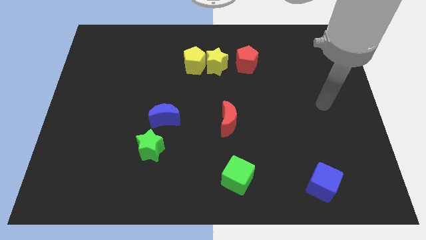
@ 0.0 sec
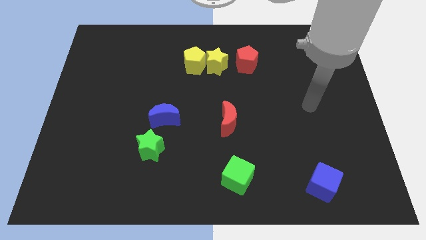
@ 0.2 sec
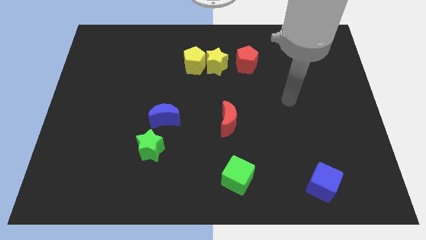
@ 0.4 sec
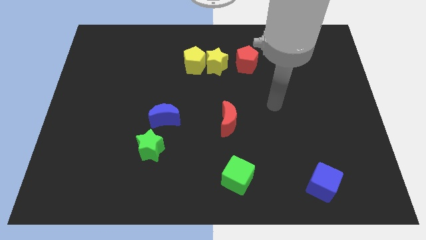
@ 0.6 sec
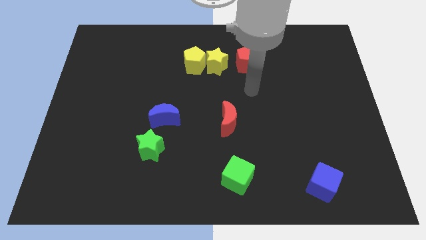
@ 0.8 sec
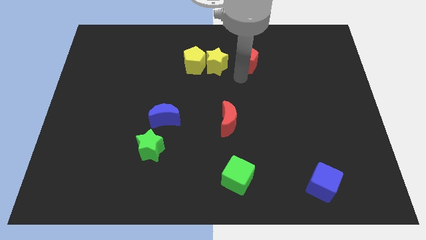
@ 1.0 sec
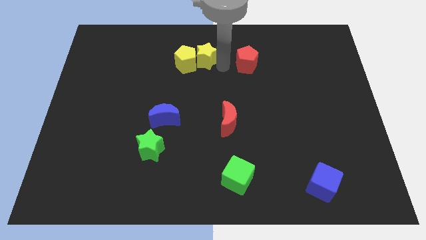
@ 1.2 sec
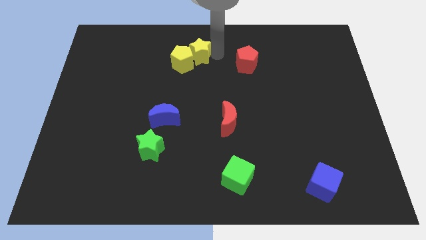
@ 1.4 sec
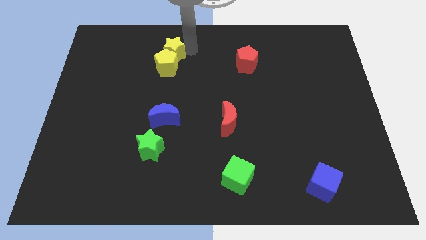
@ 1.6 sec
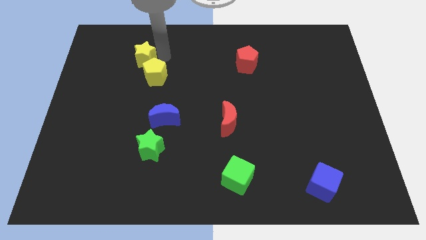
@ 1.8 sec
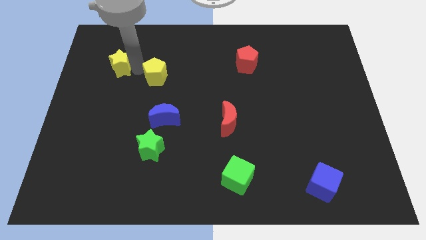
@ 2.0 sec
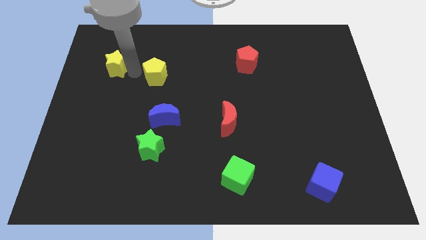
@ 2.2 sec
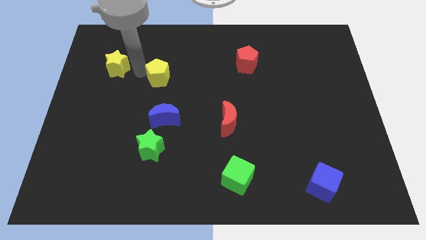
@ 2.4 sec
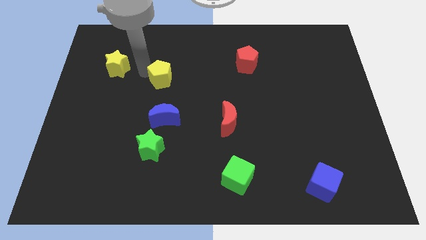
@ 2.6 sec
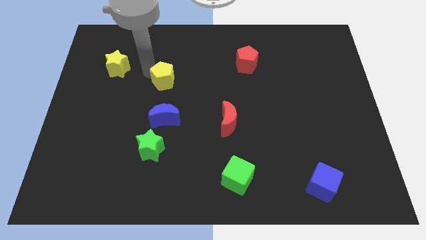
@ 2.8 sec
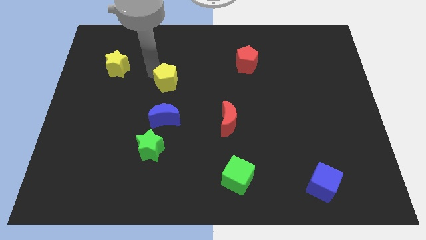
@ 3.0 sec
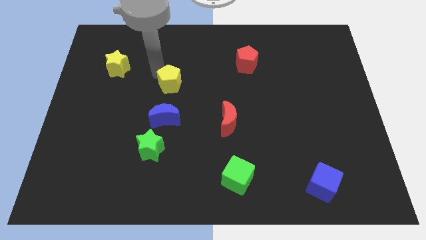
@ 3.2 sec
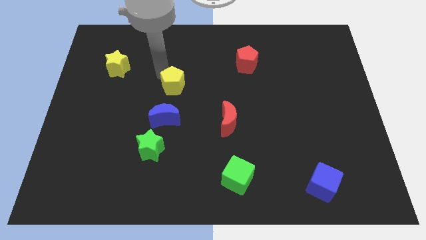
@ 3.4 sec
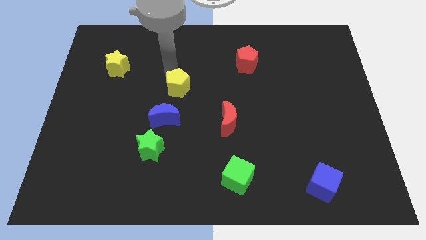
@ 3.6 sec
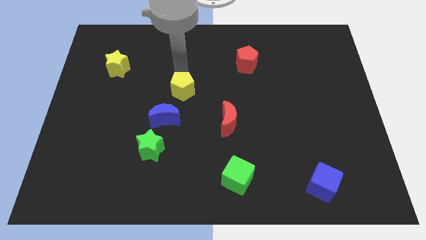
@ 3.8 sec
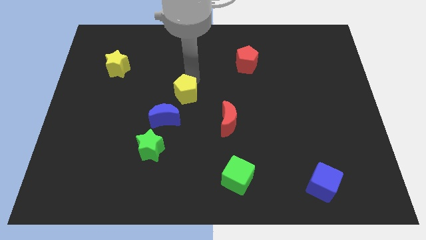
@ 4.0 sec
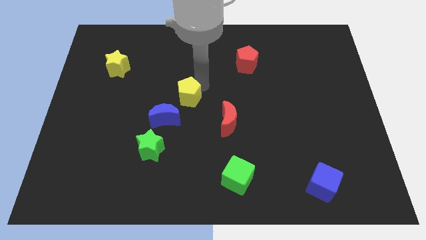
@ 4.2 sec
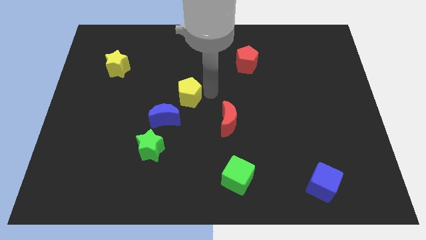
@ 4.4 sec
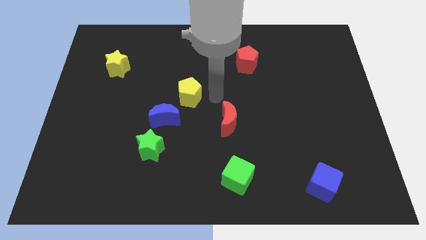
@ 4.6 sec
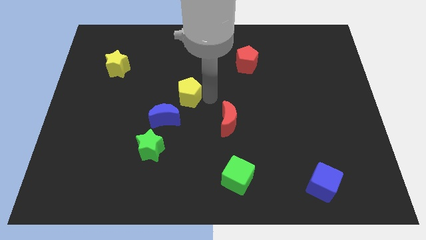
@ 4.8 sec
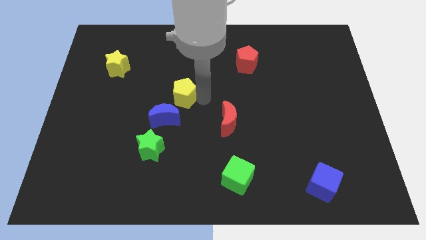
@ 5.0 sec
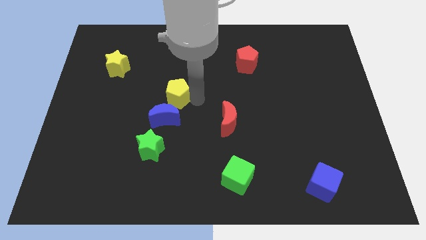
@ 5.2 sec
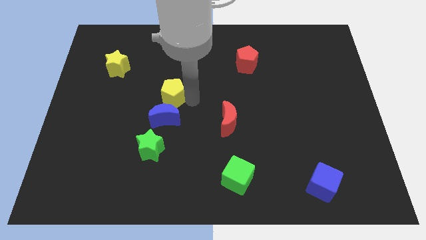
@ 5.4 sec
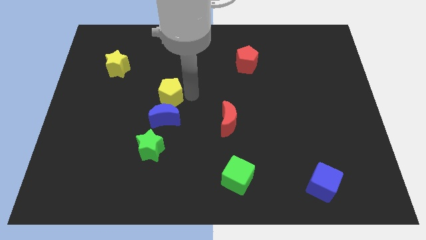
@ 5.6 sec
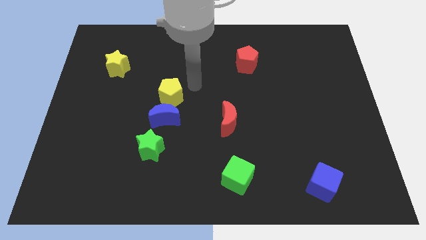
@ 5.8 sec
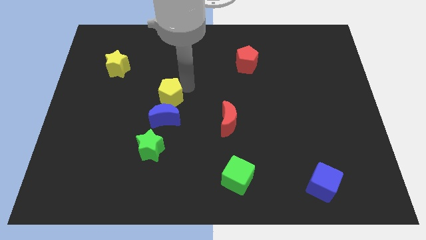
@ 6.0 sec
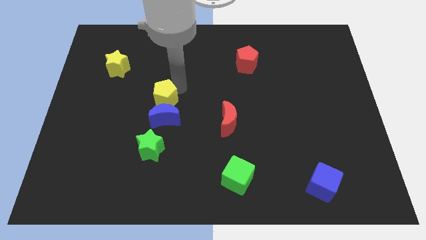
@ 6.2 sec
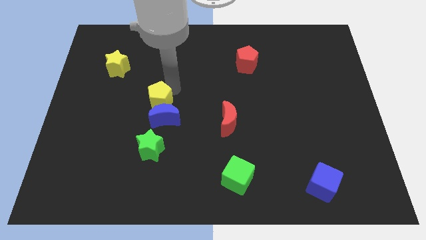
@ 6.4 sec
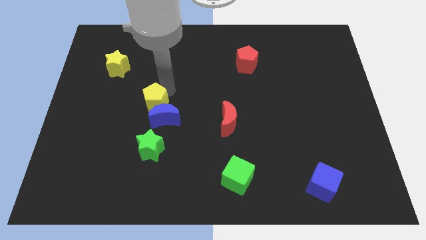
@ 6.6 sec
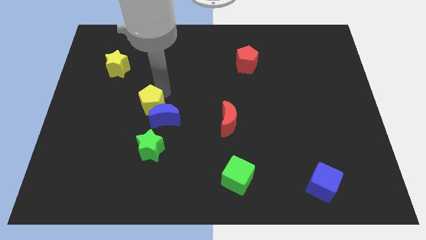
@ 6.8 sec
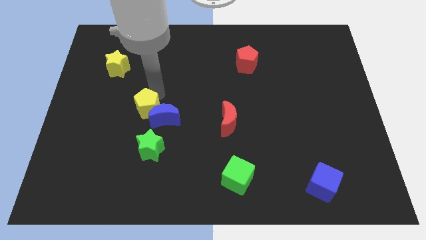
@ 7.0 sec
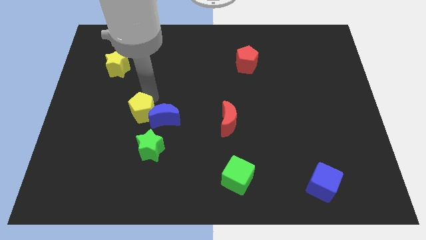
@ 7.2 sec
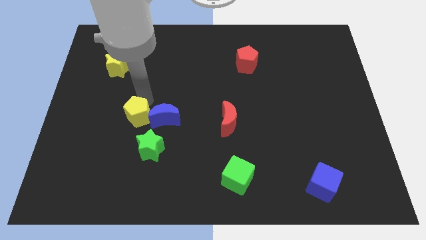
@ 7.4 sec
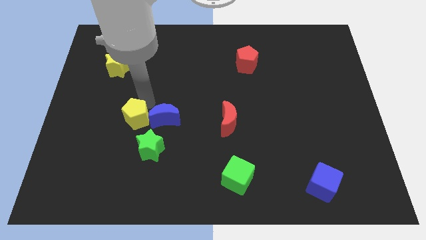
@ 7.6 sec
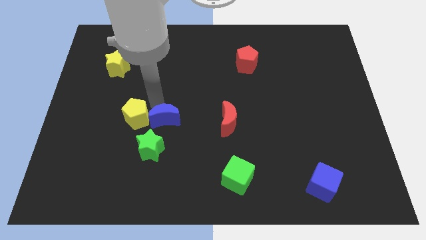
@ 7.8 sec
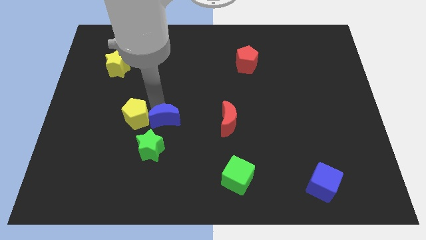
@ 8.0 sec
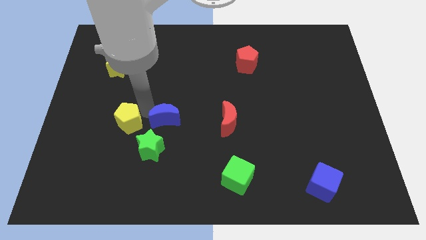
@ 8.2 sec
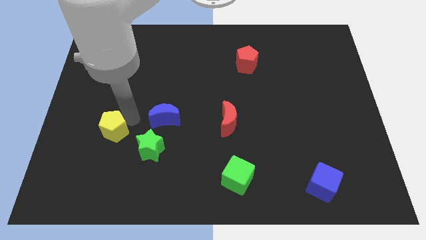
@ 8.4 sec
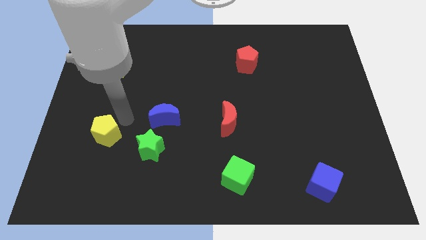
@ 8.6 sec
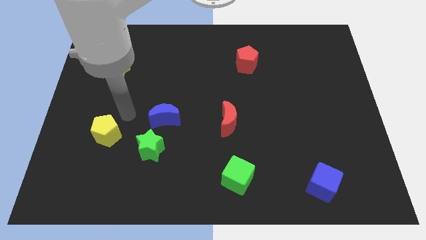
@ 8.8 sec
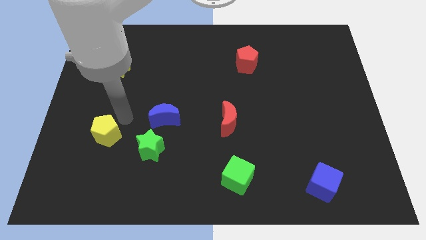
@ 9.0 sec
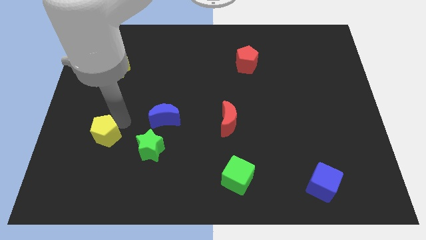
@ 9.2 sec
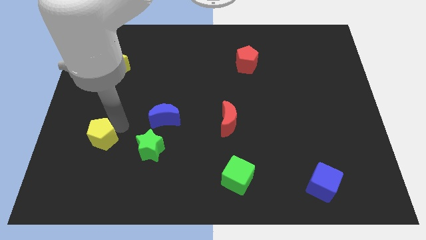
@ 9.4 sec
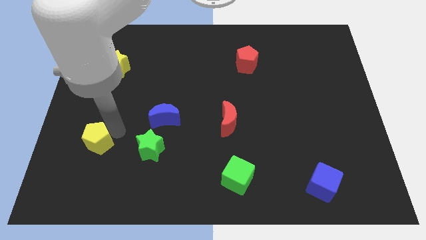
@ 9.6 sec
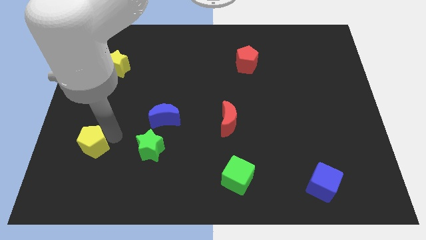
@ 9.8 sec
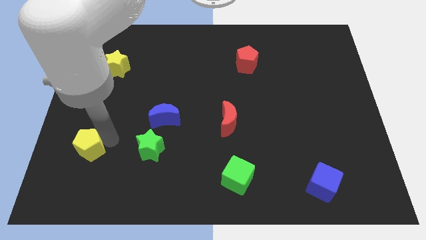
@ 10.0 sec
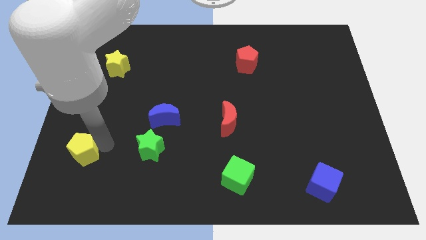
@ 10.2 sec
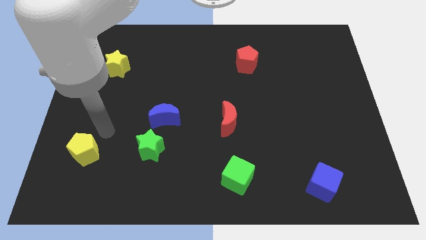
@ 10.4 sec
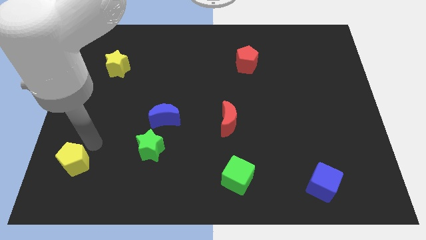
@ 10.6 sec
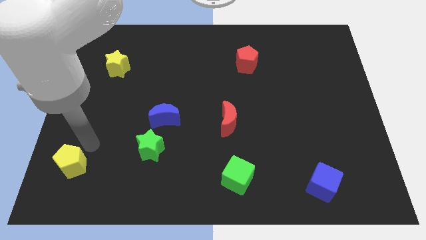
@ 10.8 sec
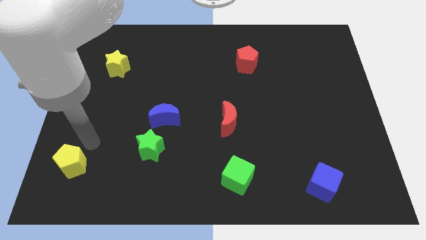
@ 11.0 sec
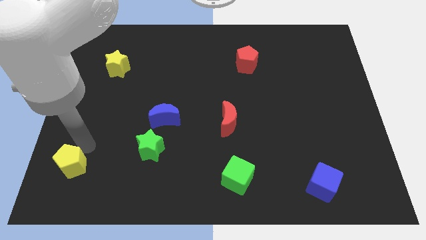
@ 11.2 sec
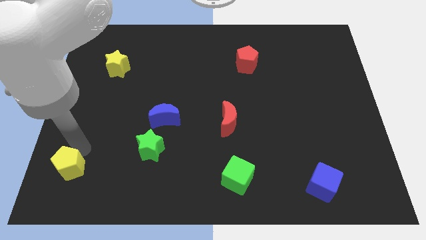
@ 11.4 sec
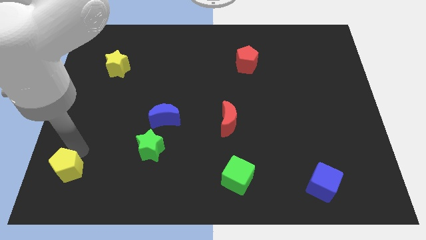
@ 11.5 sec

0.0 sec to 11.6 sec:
put the yellow pentagon to the bottom left of the board

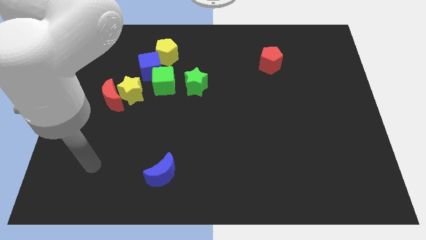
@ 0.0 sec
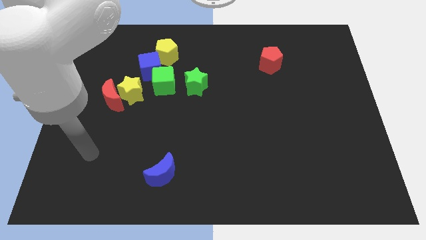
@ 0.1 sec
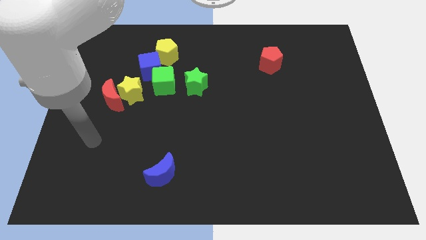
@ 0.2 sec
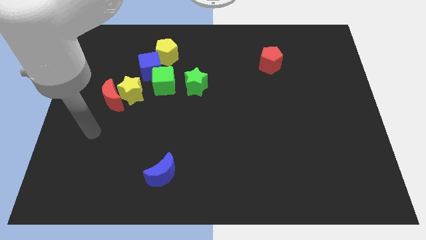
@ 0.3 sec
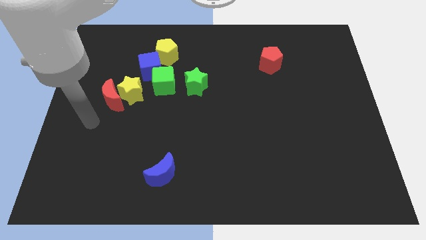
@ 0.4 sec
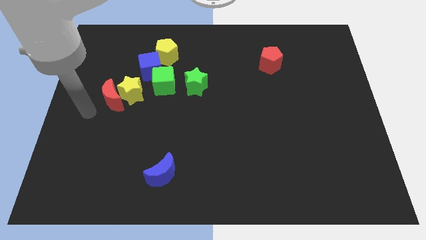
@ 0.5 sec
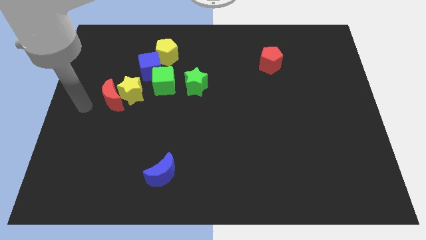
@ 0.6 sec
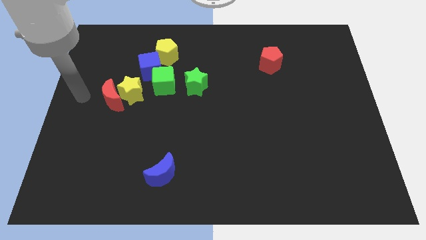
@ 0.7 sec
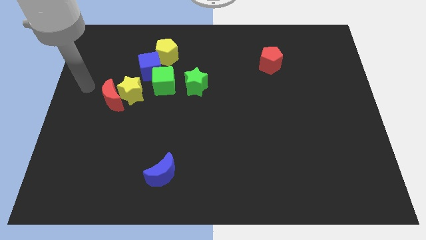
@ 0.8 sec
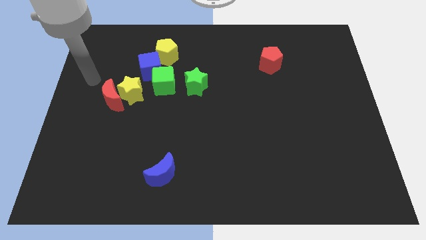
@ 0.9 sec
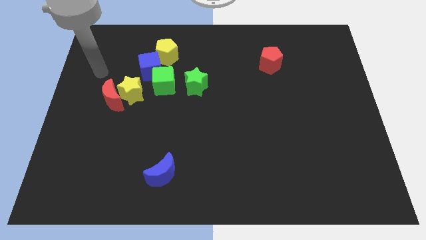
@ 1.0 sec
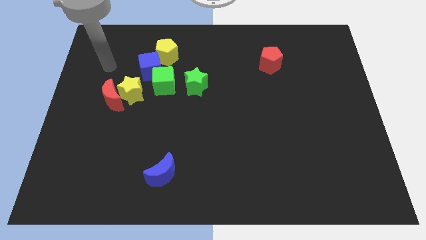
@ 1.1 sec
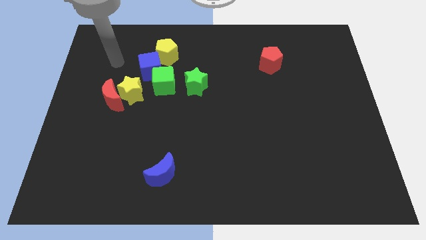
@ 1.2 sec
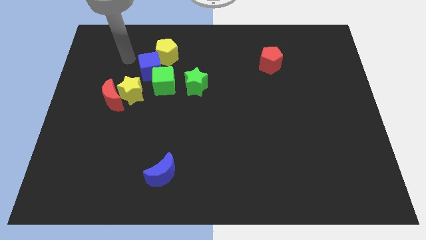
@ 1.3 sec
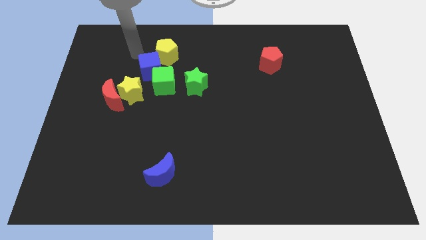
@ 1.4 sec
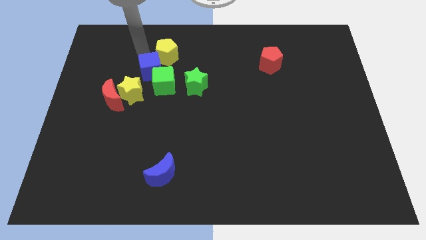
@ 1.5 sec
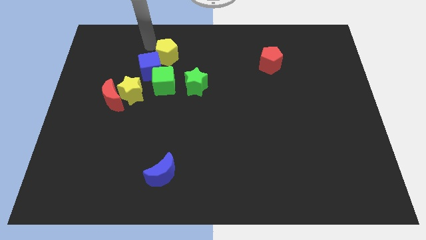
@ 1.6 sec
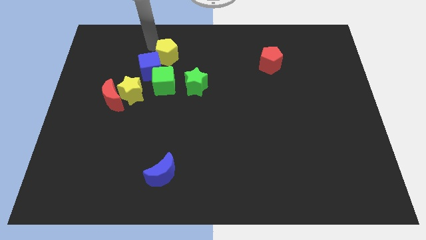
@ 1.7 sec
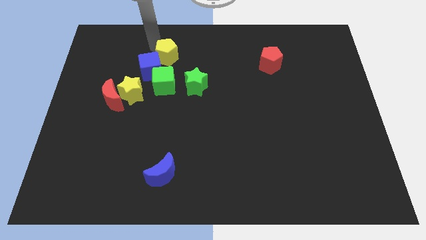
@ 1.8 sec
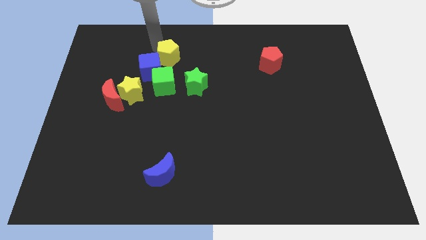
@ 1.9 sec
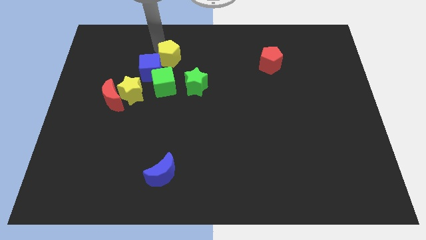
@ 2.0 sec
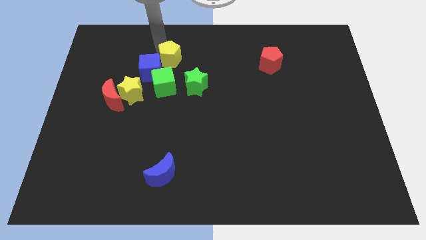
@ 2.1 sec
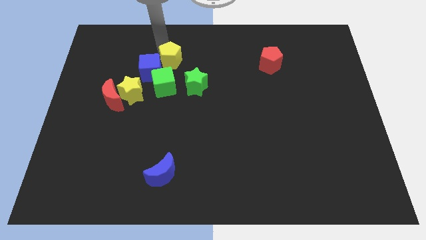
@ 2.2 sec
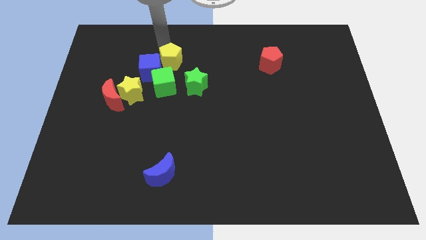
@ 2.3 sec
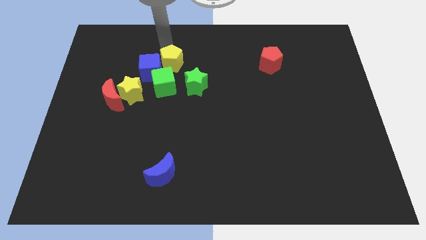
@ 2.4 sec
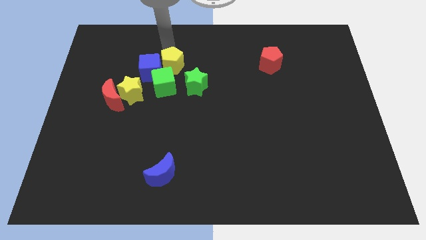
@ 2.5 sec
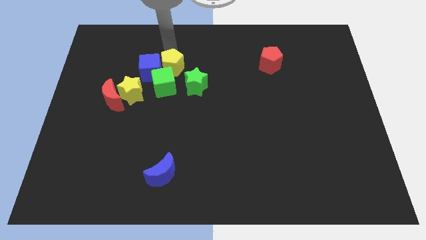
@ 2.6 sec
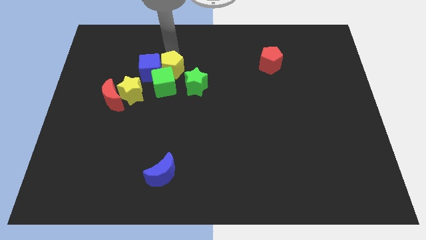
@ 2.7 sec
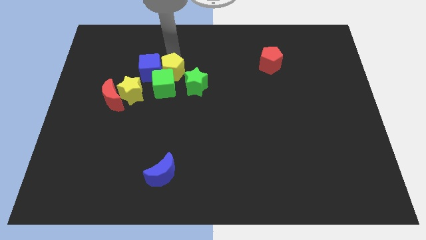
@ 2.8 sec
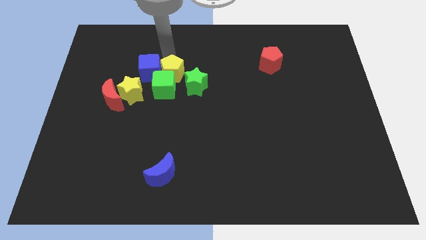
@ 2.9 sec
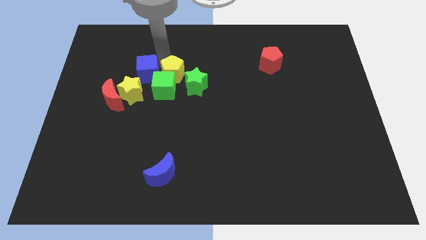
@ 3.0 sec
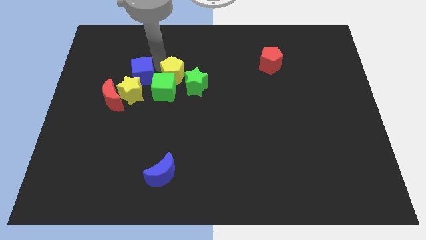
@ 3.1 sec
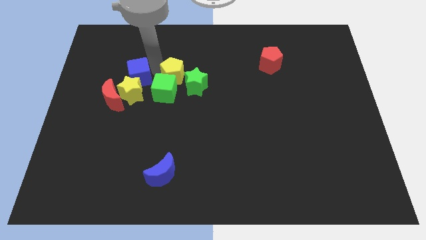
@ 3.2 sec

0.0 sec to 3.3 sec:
move the yellow pentagon to the middle
